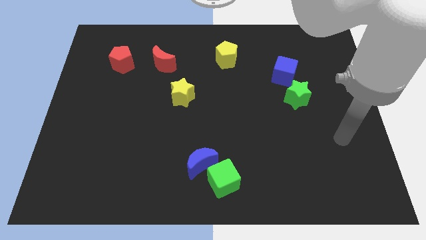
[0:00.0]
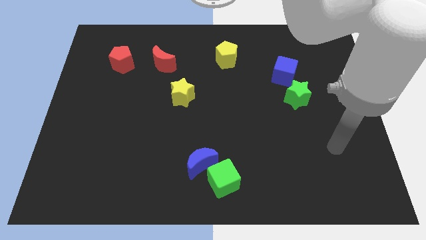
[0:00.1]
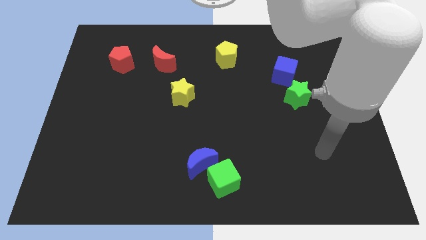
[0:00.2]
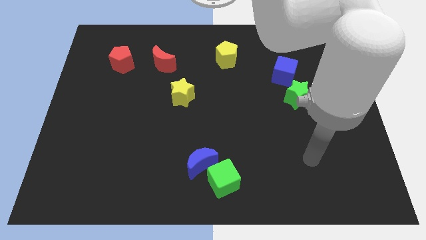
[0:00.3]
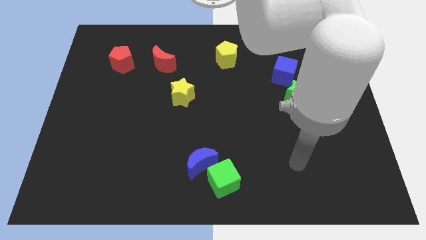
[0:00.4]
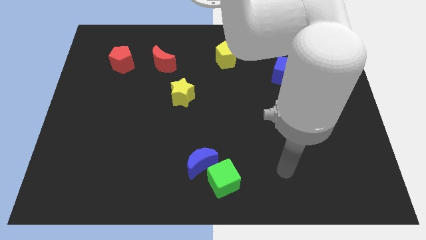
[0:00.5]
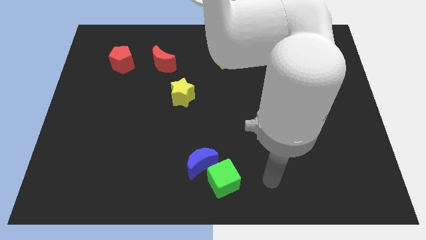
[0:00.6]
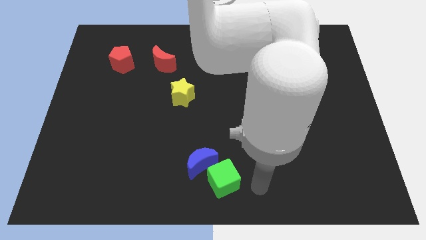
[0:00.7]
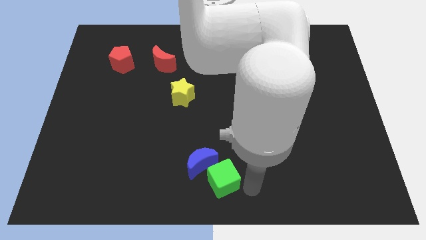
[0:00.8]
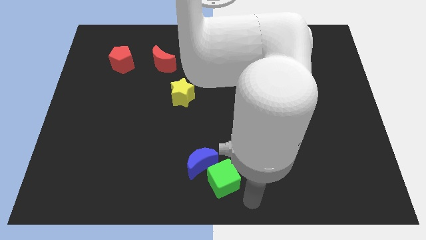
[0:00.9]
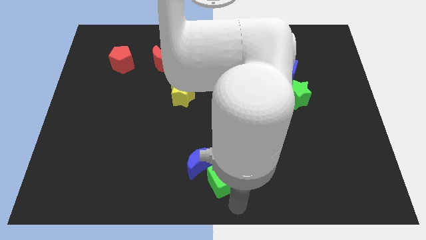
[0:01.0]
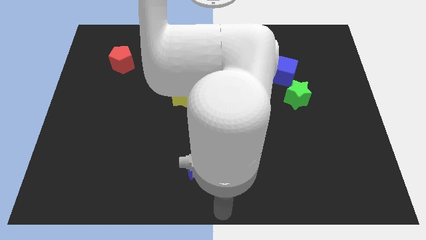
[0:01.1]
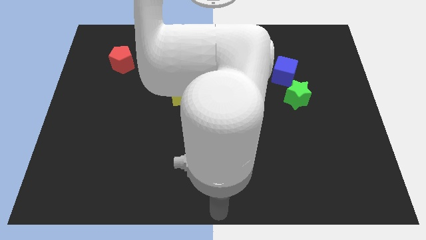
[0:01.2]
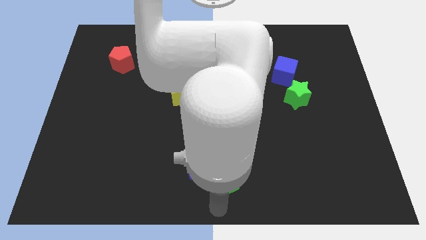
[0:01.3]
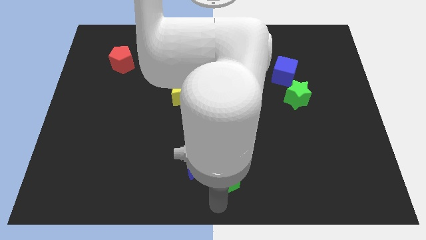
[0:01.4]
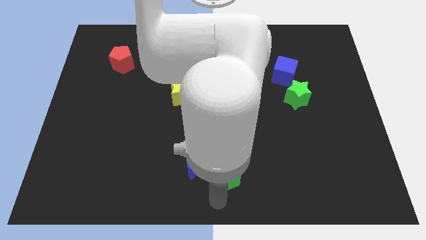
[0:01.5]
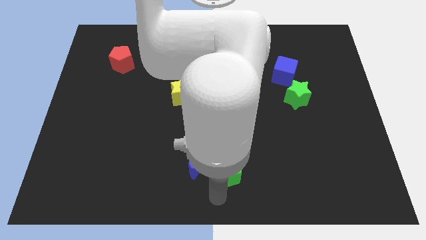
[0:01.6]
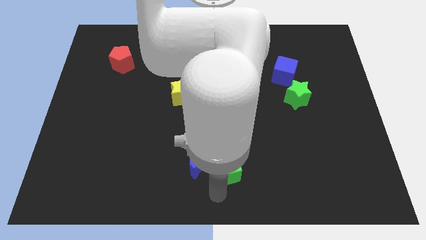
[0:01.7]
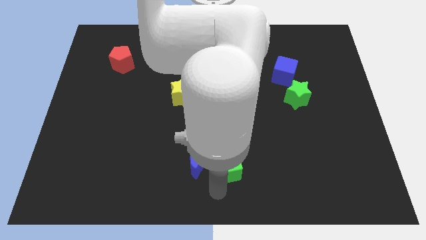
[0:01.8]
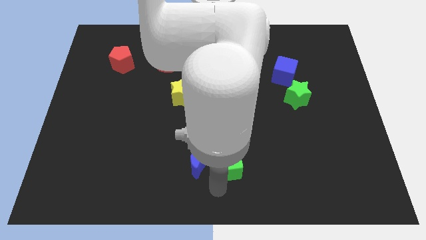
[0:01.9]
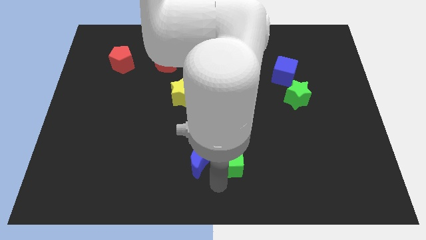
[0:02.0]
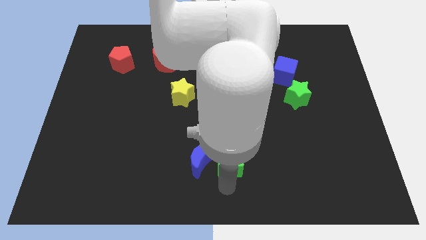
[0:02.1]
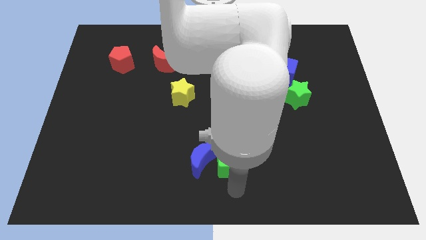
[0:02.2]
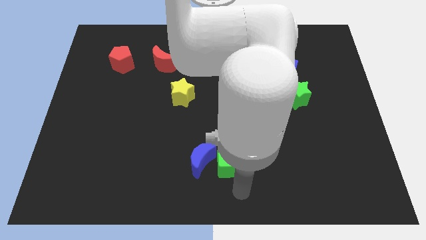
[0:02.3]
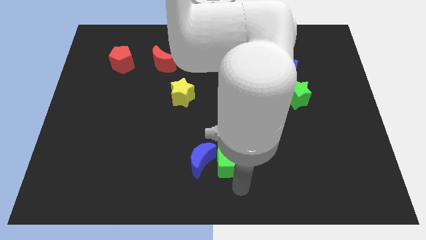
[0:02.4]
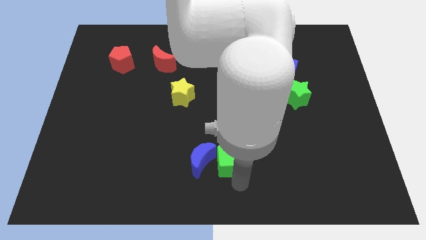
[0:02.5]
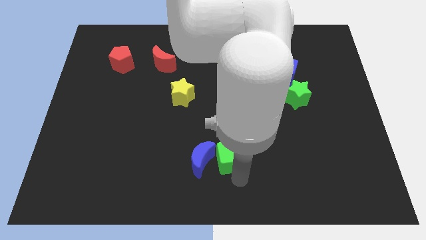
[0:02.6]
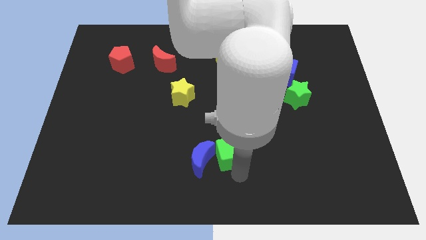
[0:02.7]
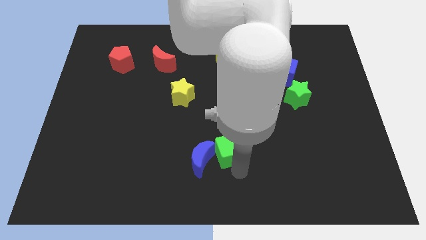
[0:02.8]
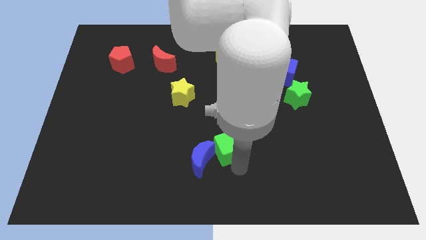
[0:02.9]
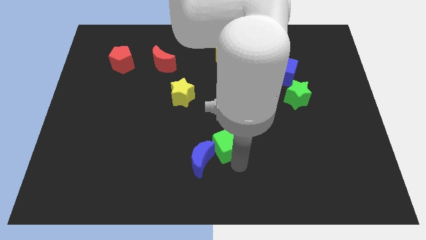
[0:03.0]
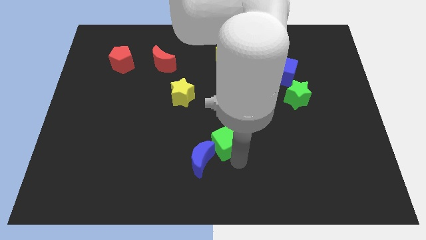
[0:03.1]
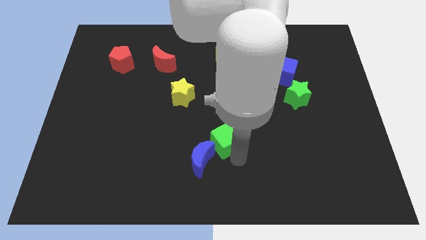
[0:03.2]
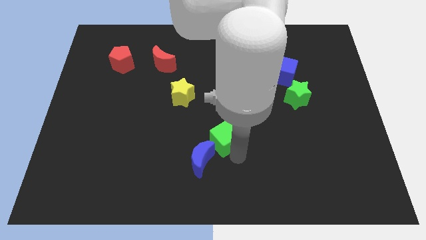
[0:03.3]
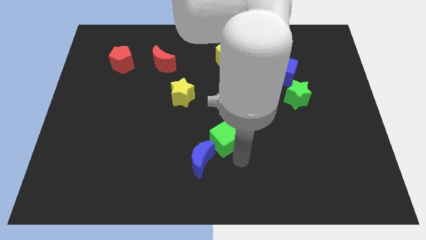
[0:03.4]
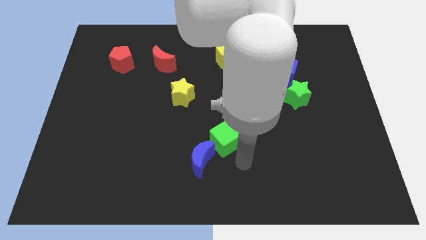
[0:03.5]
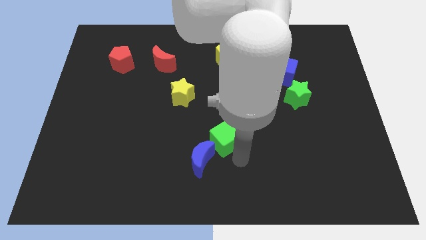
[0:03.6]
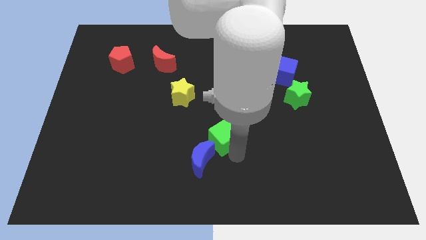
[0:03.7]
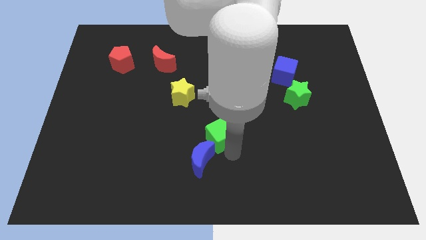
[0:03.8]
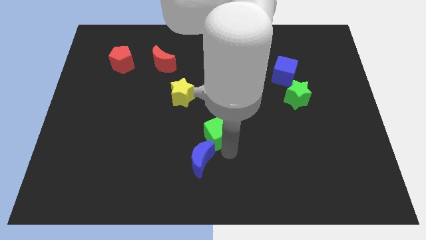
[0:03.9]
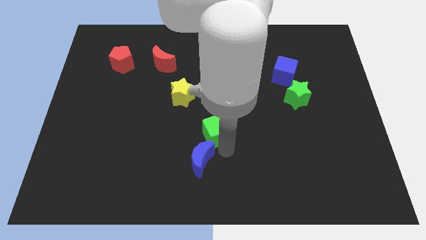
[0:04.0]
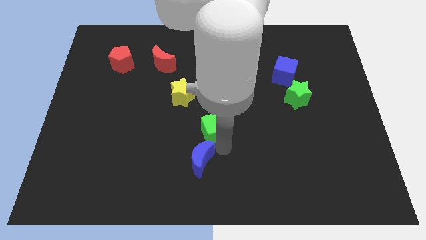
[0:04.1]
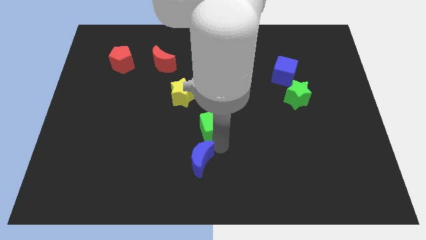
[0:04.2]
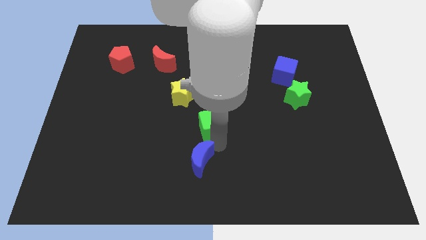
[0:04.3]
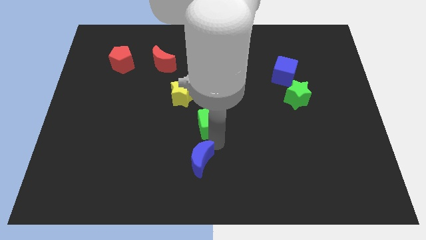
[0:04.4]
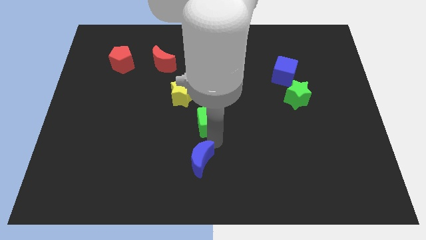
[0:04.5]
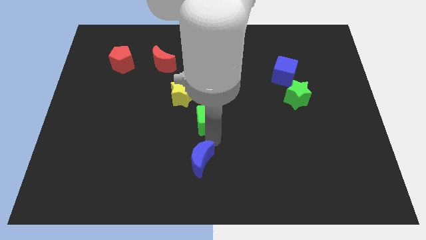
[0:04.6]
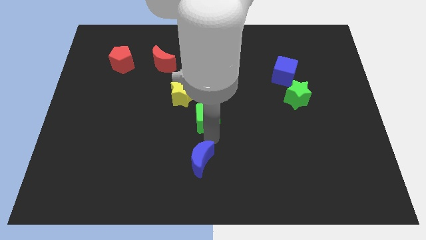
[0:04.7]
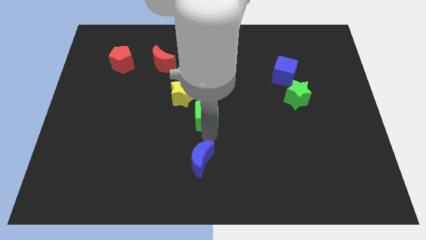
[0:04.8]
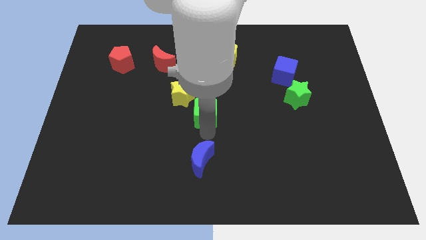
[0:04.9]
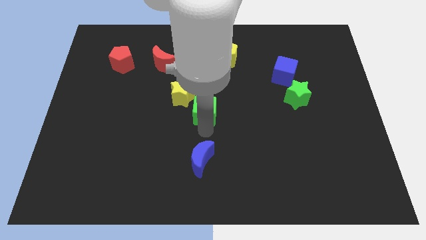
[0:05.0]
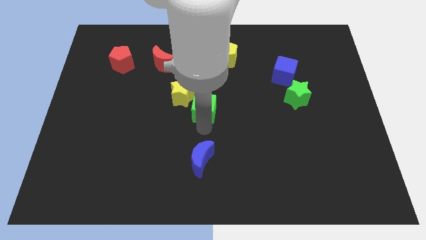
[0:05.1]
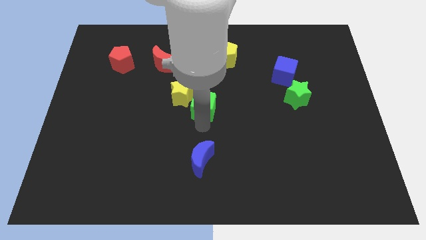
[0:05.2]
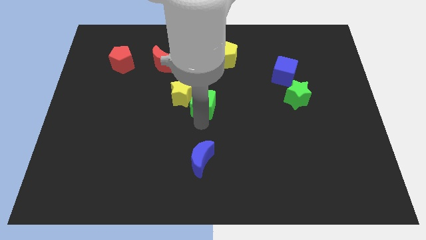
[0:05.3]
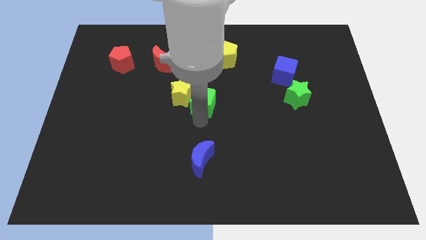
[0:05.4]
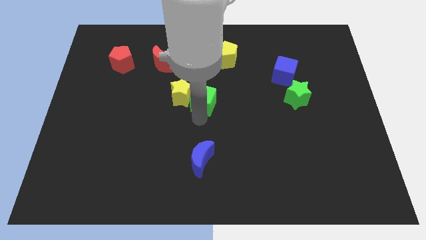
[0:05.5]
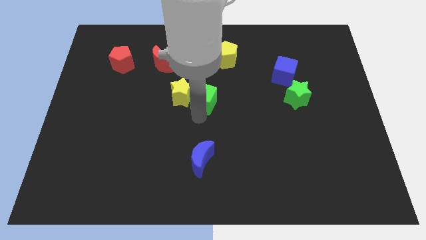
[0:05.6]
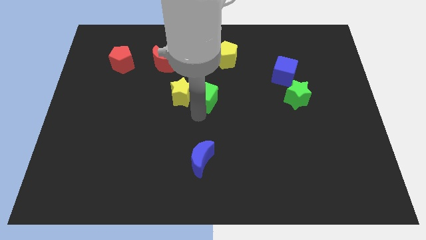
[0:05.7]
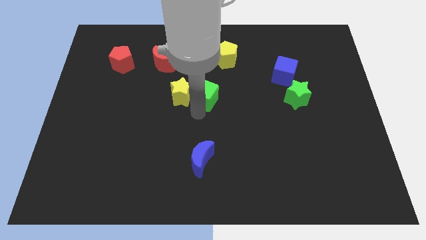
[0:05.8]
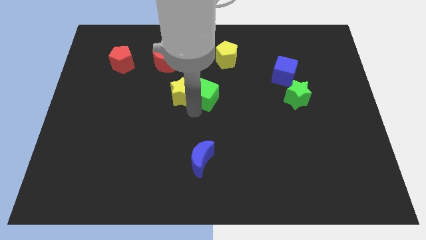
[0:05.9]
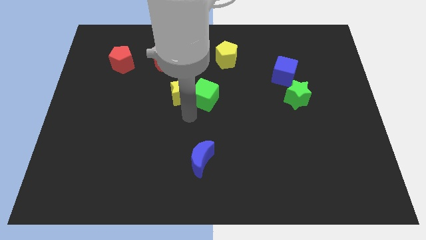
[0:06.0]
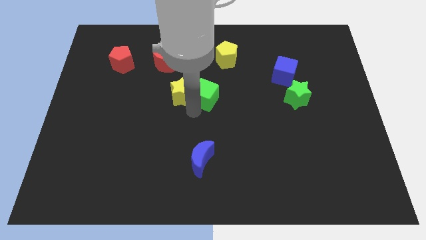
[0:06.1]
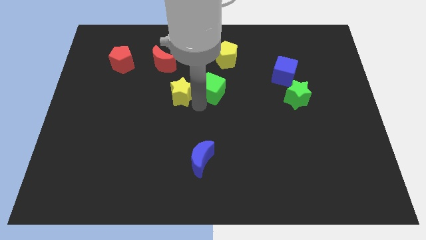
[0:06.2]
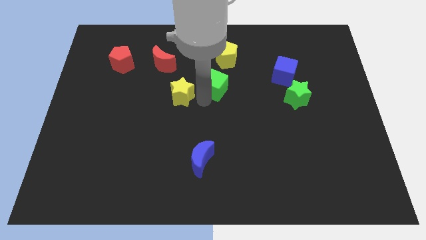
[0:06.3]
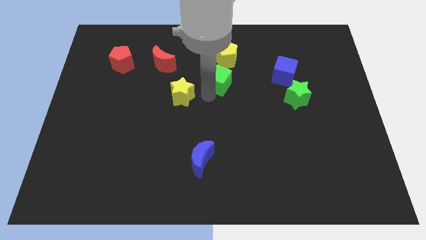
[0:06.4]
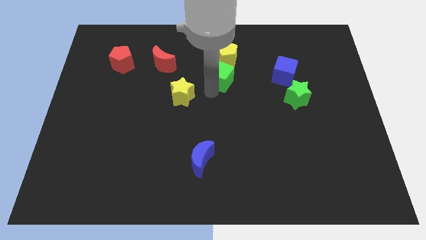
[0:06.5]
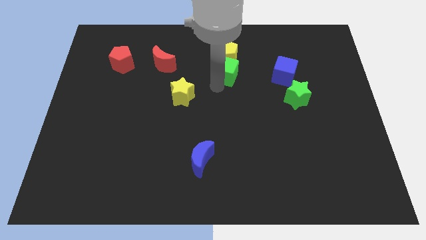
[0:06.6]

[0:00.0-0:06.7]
slide the green cube towards the yellow pentagon
